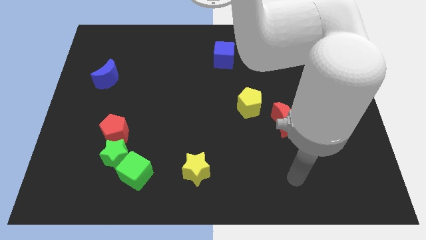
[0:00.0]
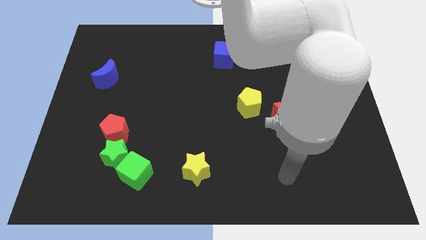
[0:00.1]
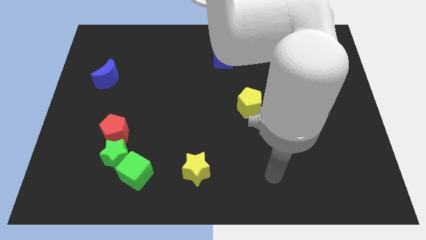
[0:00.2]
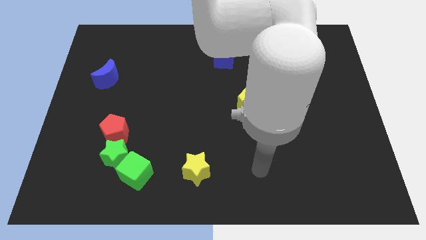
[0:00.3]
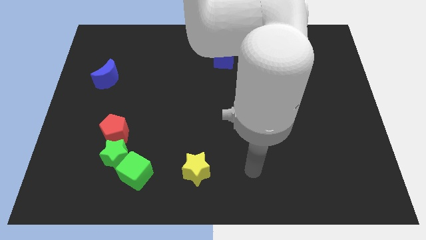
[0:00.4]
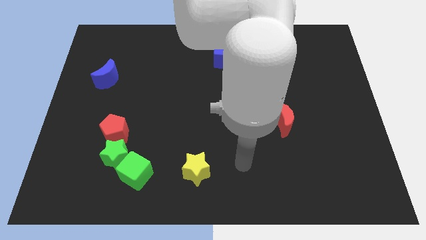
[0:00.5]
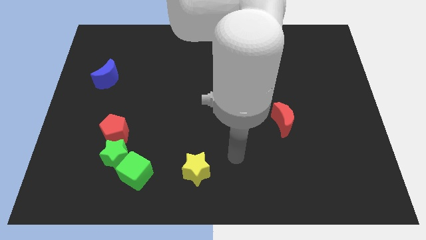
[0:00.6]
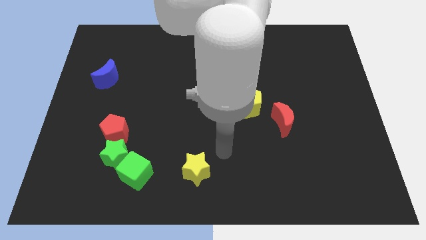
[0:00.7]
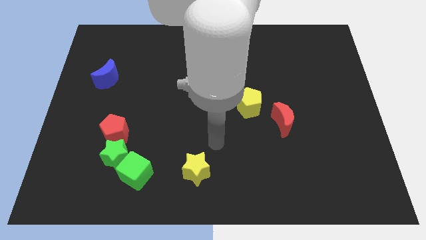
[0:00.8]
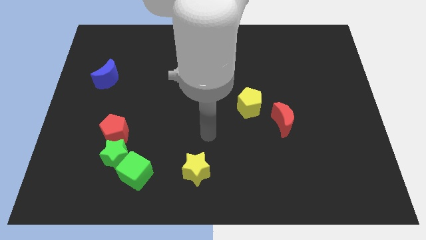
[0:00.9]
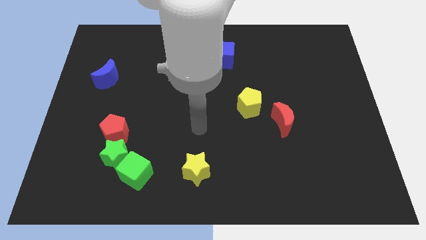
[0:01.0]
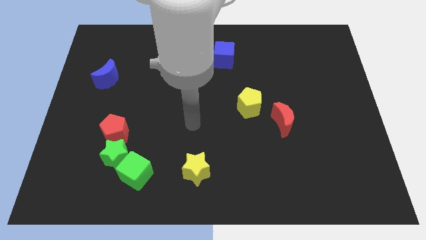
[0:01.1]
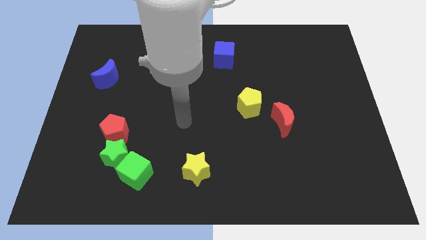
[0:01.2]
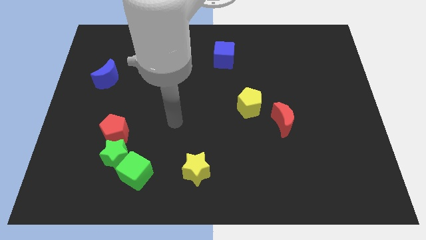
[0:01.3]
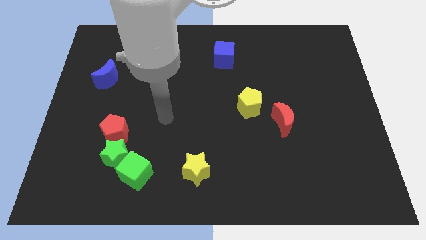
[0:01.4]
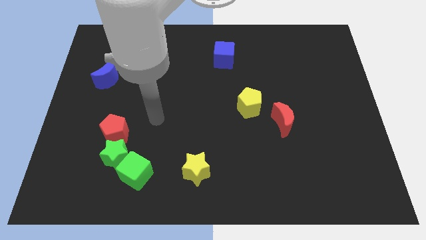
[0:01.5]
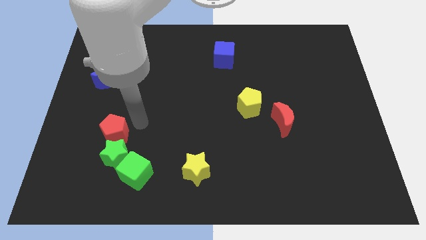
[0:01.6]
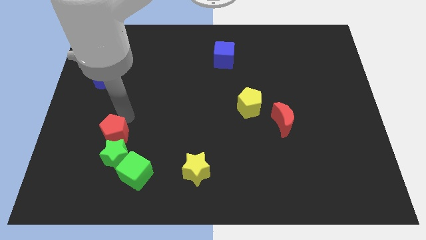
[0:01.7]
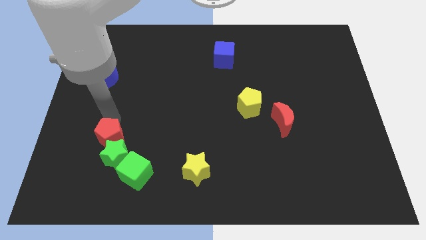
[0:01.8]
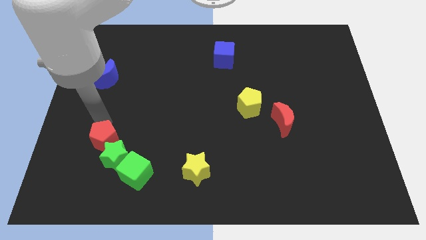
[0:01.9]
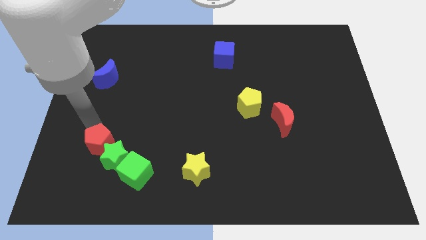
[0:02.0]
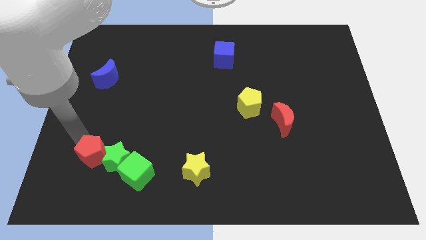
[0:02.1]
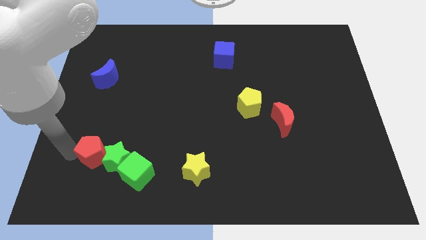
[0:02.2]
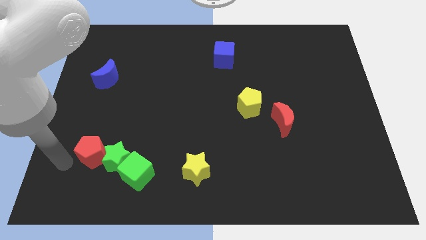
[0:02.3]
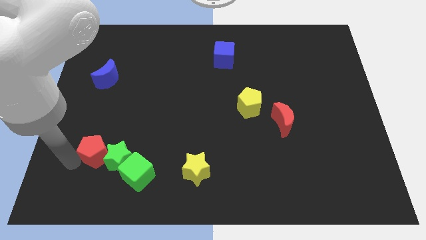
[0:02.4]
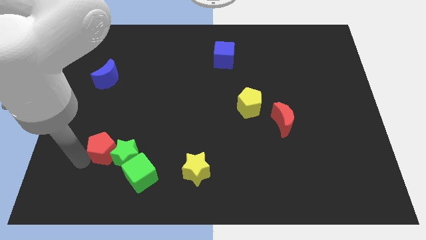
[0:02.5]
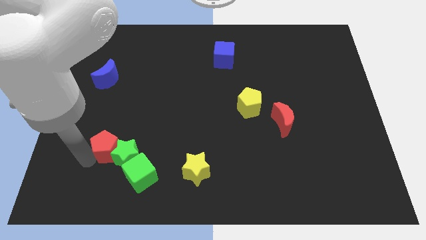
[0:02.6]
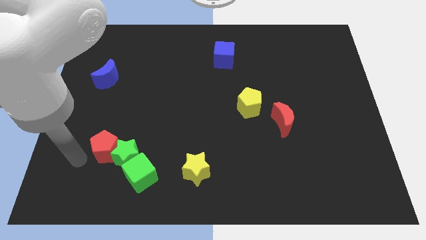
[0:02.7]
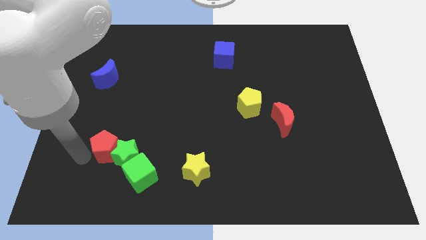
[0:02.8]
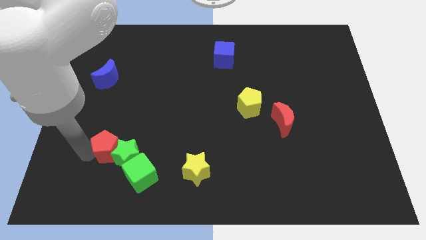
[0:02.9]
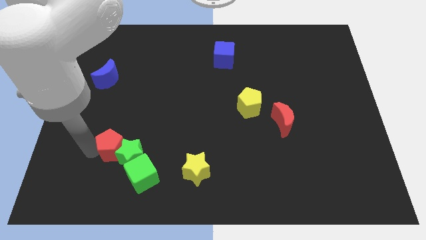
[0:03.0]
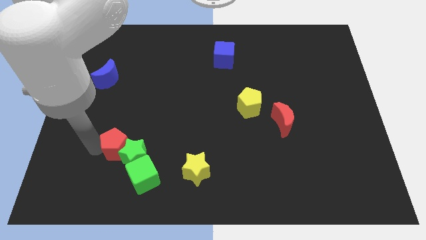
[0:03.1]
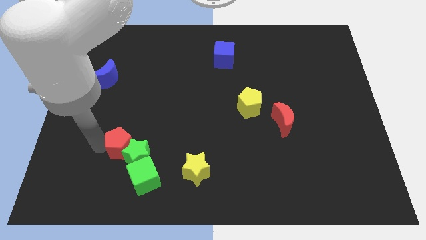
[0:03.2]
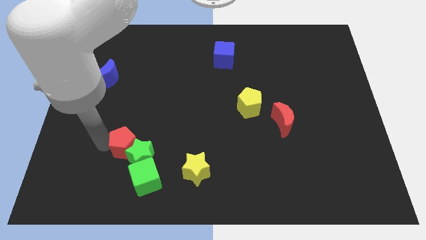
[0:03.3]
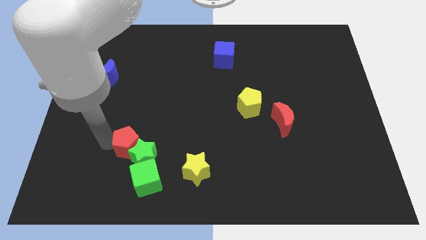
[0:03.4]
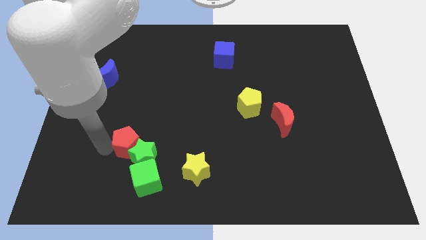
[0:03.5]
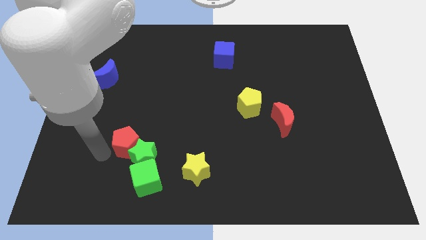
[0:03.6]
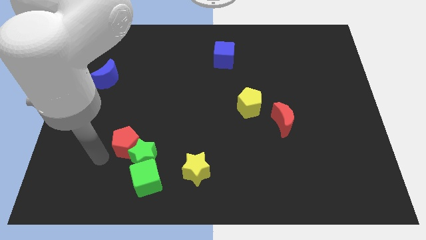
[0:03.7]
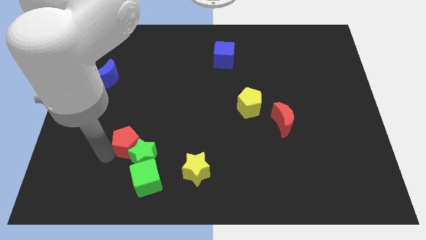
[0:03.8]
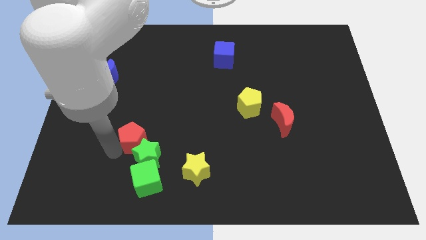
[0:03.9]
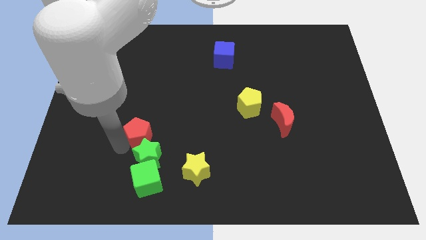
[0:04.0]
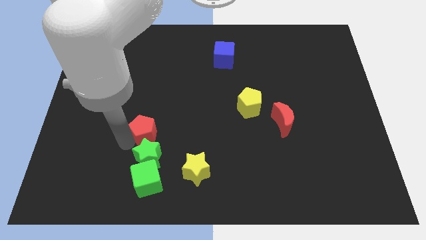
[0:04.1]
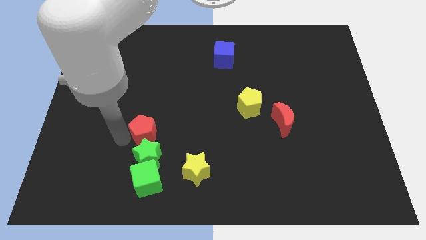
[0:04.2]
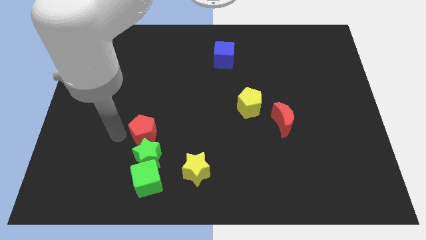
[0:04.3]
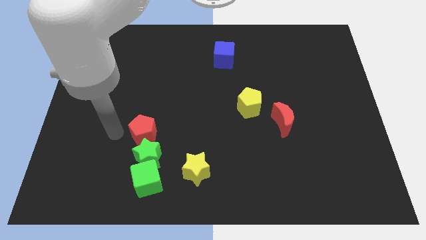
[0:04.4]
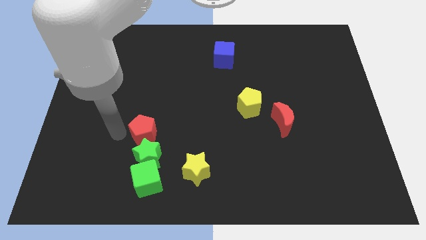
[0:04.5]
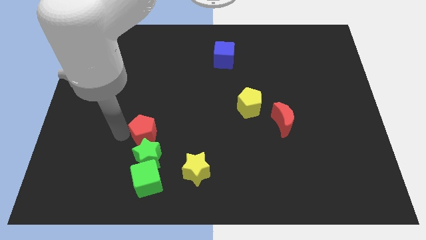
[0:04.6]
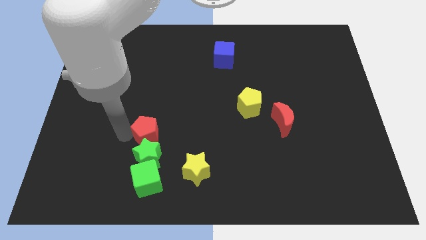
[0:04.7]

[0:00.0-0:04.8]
slightly push the red pentagon right

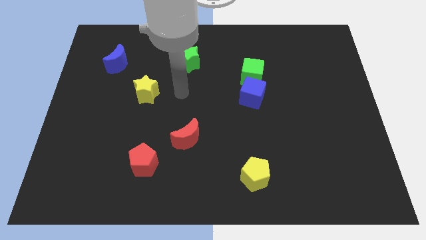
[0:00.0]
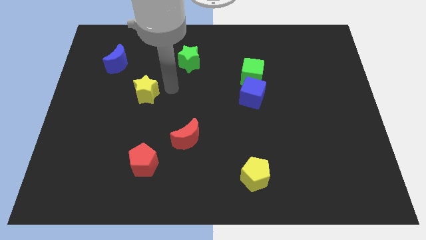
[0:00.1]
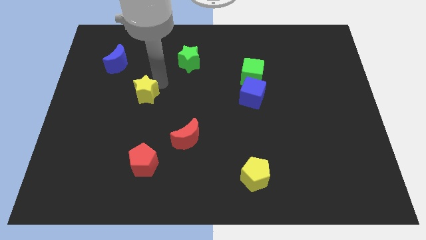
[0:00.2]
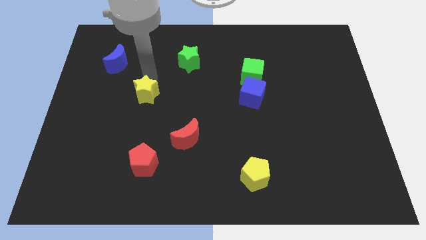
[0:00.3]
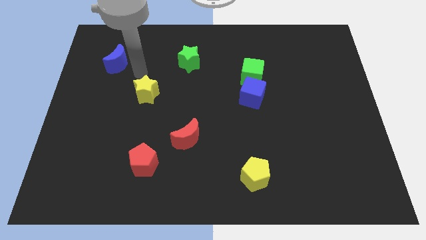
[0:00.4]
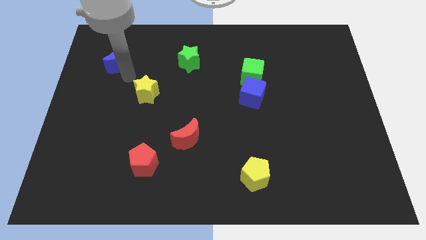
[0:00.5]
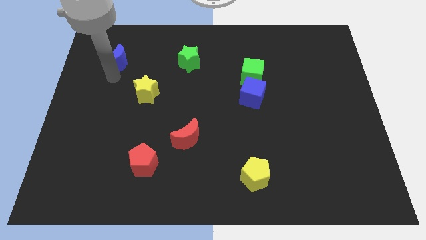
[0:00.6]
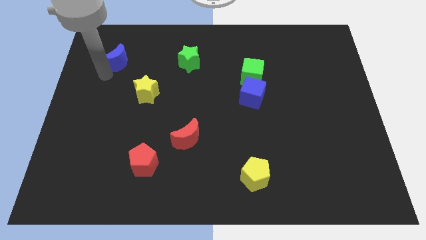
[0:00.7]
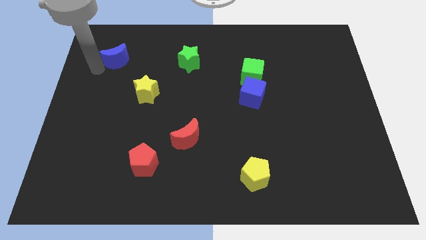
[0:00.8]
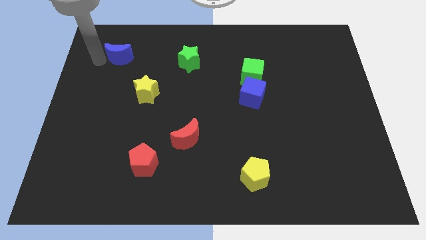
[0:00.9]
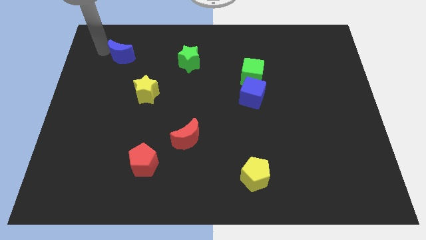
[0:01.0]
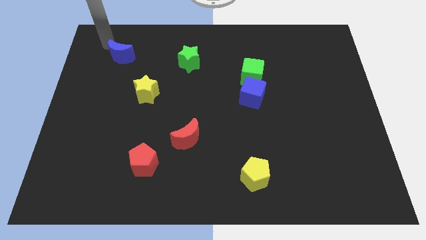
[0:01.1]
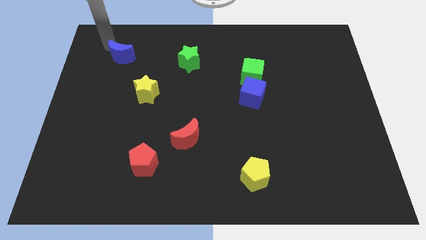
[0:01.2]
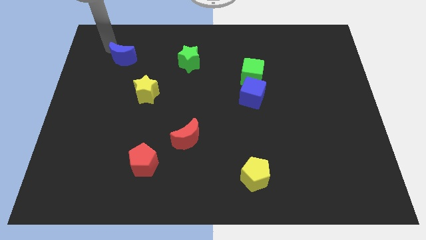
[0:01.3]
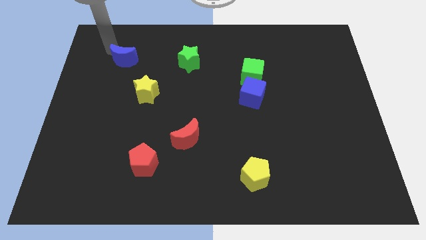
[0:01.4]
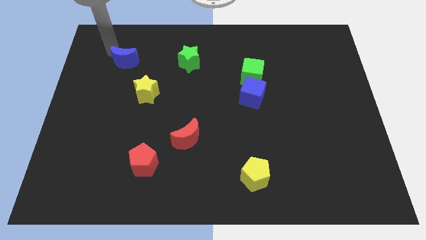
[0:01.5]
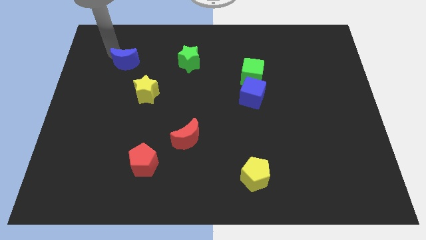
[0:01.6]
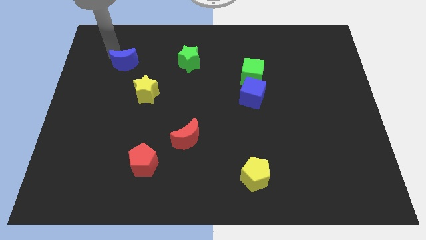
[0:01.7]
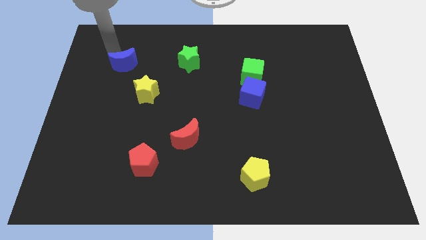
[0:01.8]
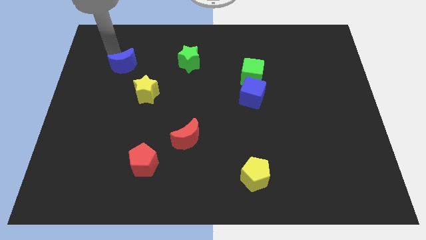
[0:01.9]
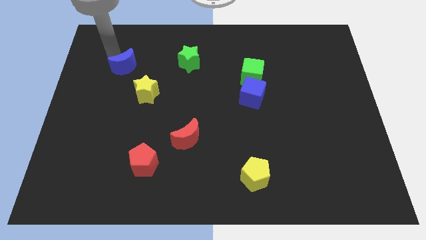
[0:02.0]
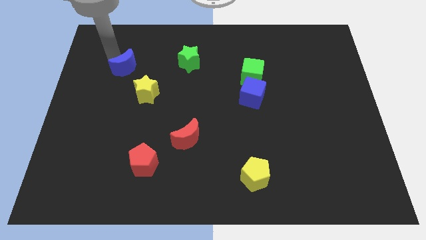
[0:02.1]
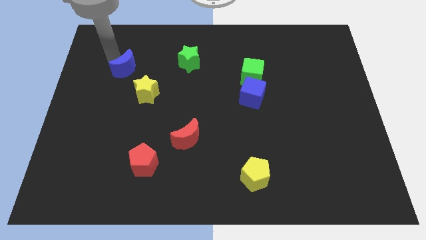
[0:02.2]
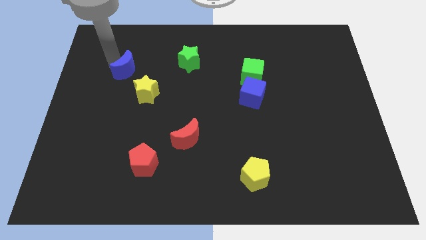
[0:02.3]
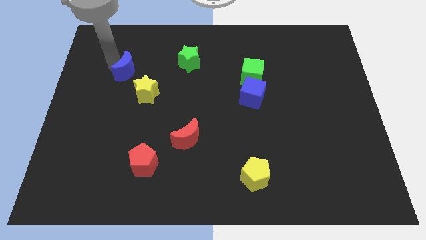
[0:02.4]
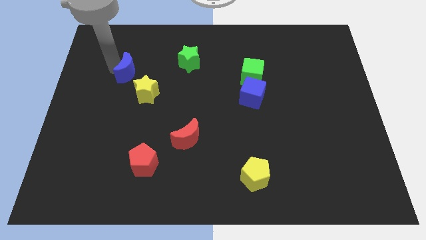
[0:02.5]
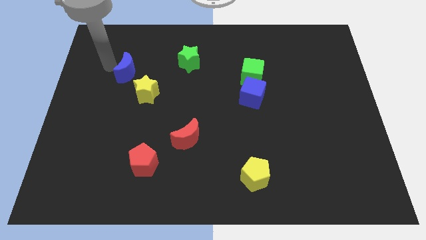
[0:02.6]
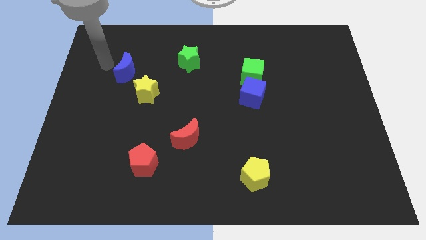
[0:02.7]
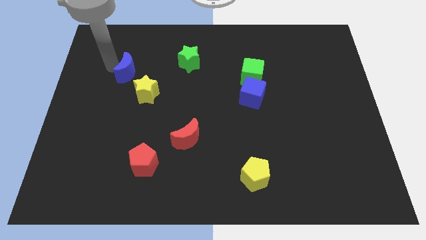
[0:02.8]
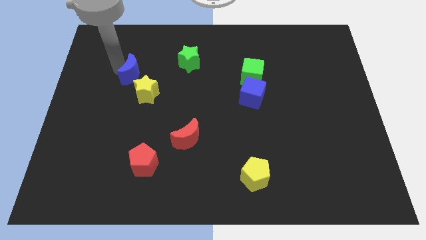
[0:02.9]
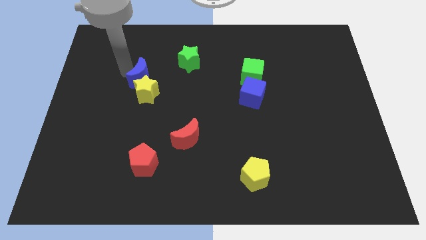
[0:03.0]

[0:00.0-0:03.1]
move the blue moon a bit downwards and to the right
